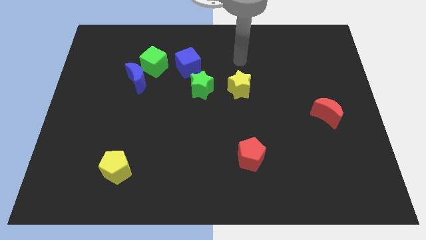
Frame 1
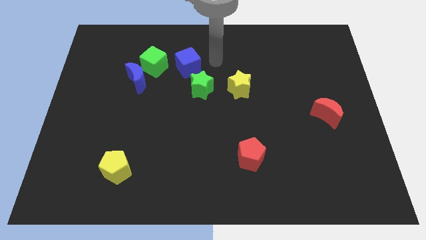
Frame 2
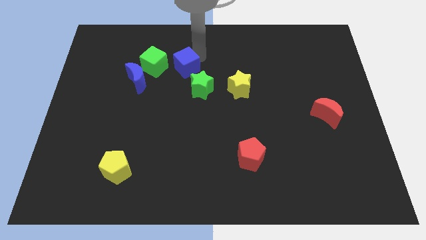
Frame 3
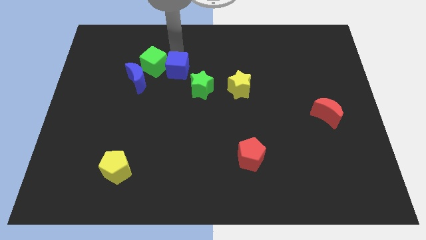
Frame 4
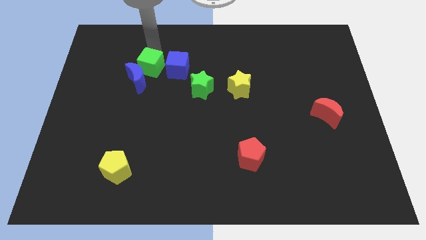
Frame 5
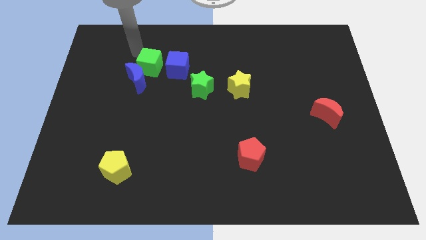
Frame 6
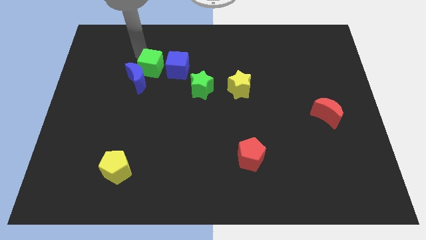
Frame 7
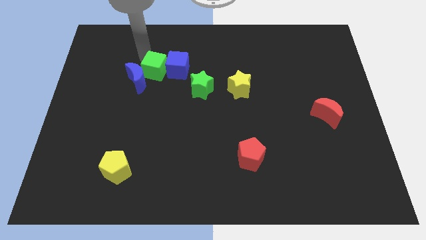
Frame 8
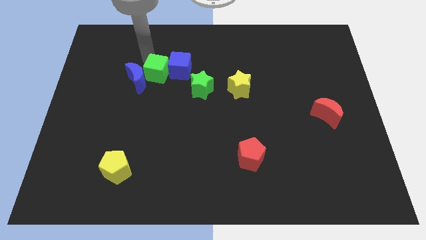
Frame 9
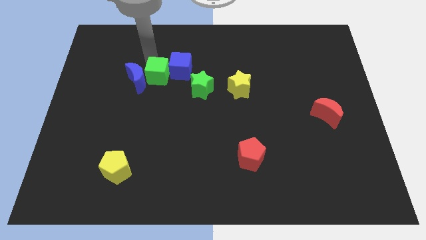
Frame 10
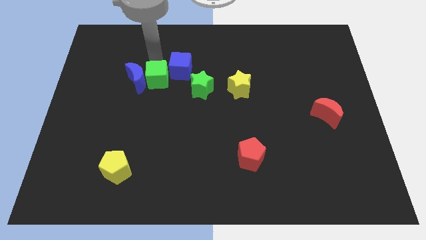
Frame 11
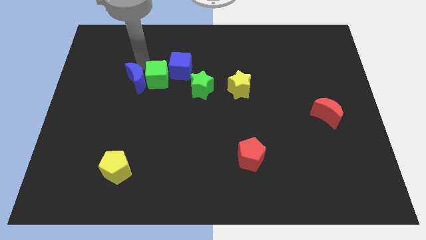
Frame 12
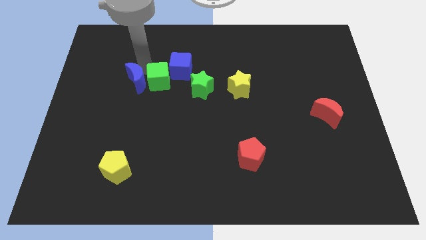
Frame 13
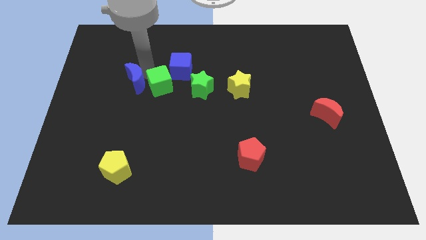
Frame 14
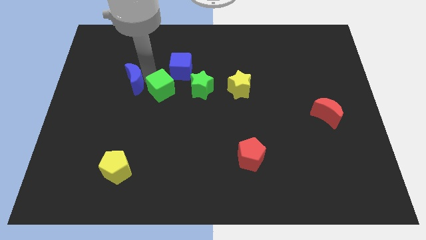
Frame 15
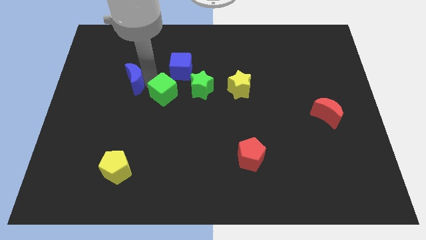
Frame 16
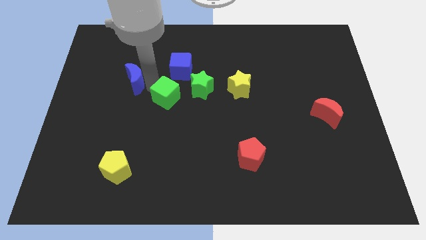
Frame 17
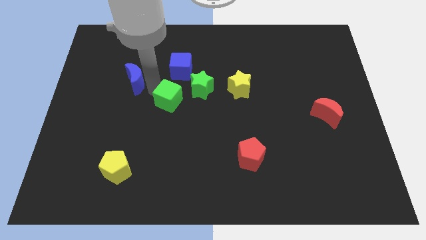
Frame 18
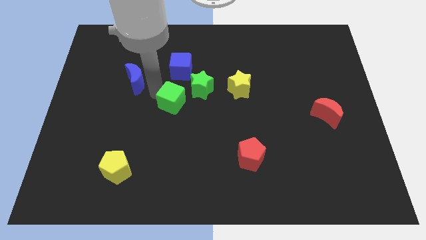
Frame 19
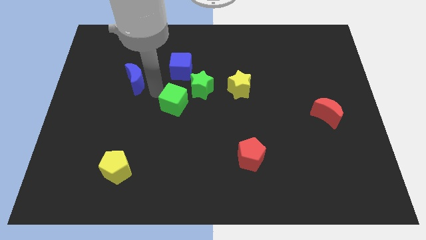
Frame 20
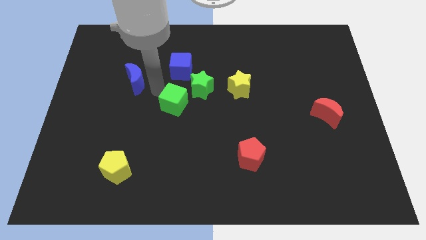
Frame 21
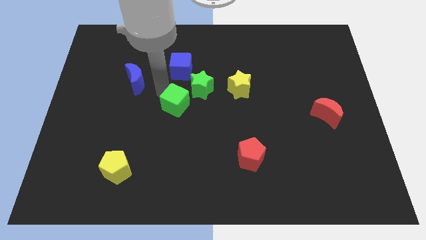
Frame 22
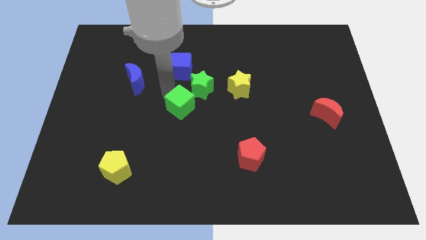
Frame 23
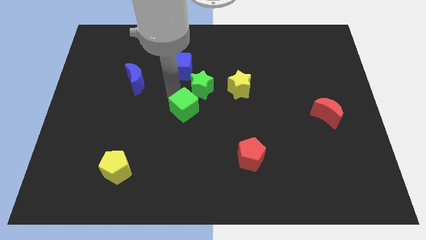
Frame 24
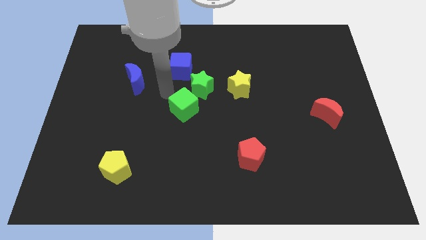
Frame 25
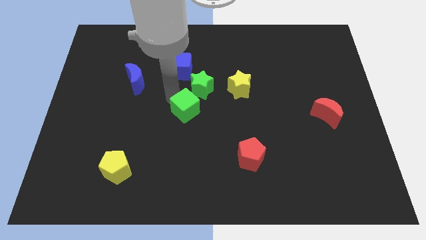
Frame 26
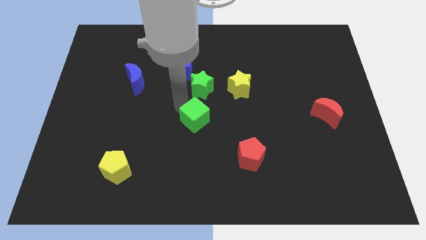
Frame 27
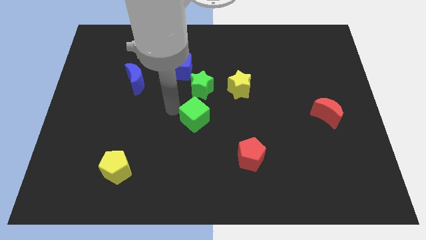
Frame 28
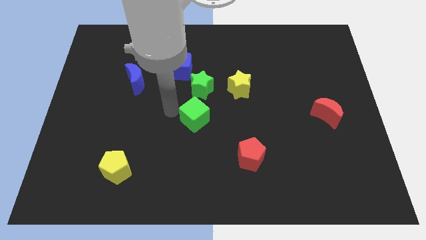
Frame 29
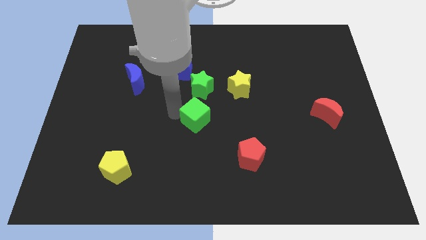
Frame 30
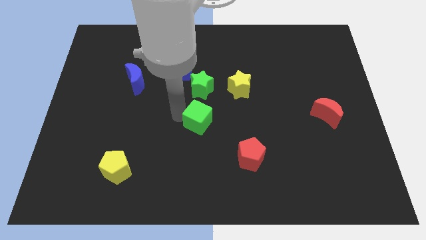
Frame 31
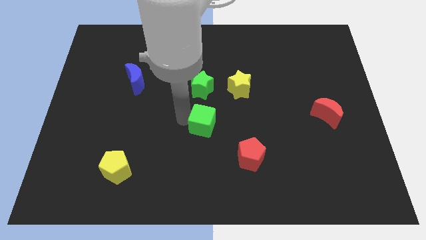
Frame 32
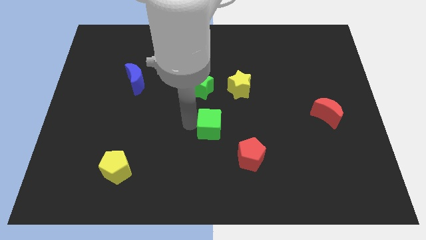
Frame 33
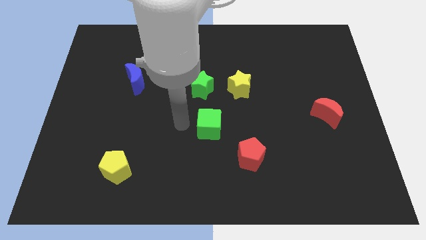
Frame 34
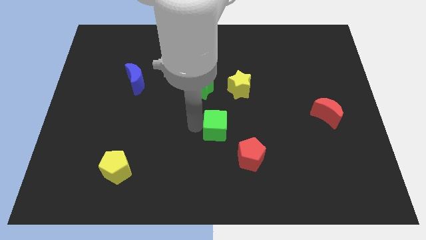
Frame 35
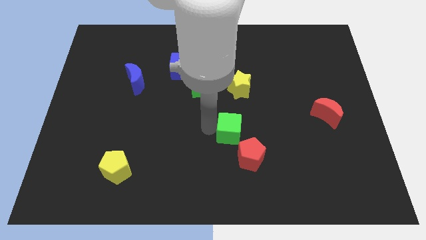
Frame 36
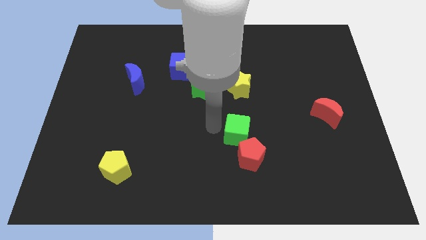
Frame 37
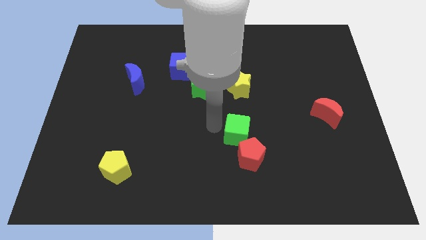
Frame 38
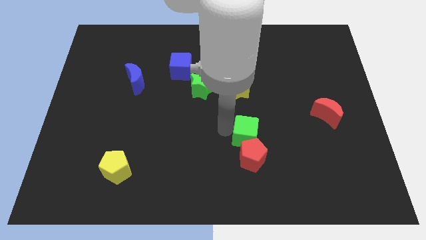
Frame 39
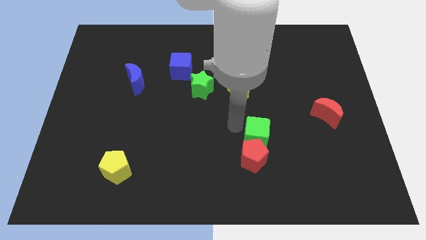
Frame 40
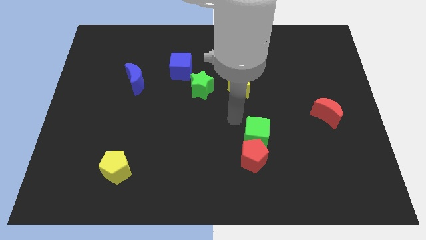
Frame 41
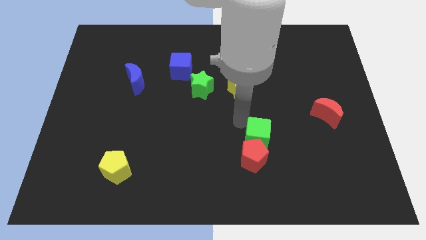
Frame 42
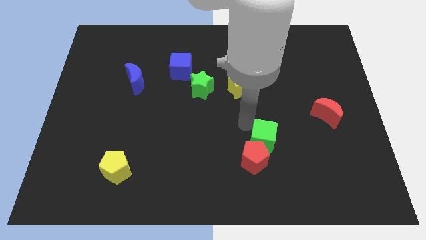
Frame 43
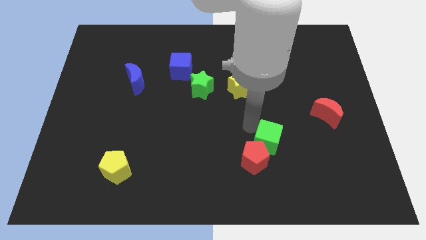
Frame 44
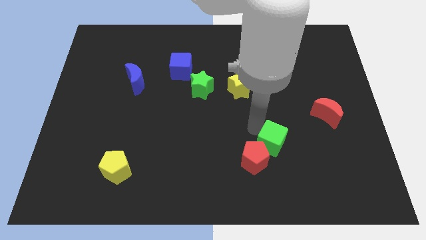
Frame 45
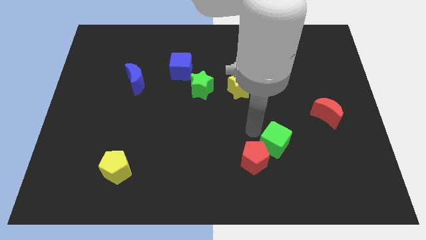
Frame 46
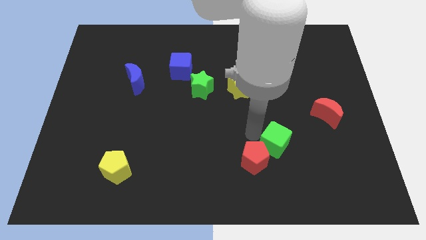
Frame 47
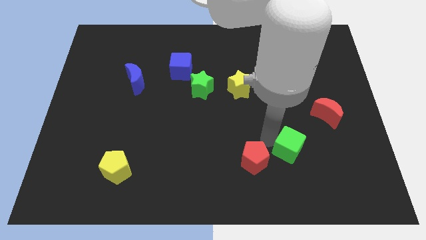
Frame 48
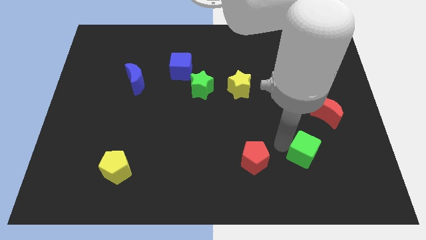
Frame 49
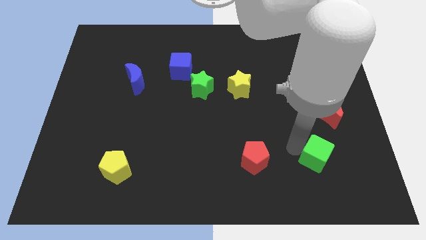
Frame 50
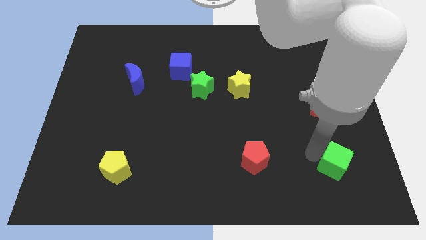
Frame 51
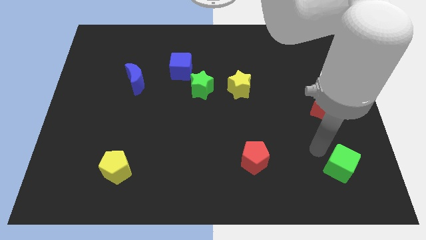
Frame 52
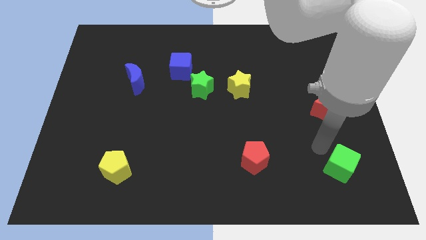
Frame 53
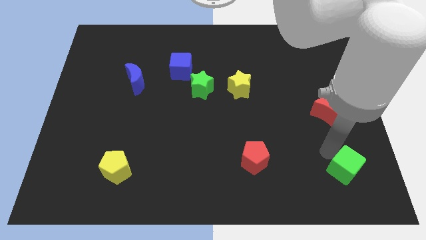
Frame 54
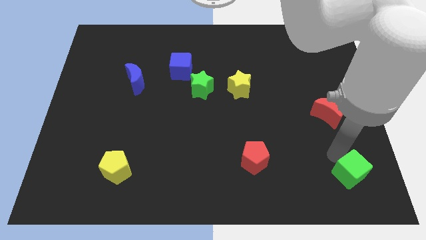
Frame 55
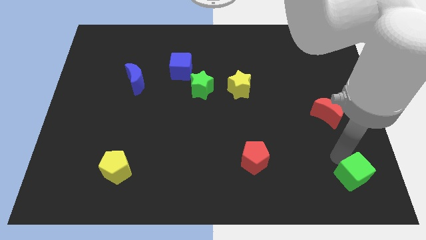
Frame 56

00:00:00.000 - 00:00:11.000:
move the green cube to the bottom right

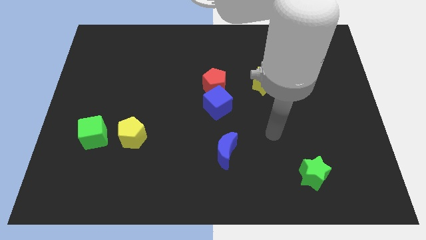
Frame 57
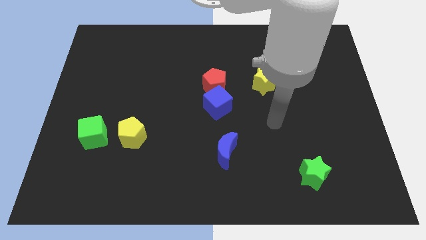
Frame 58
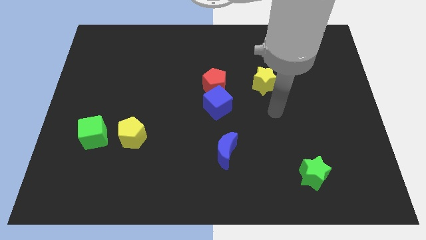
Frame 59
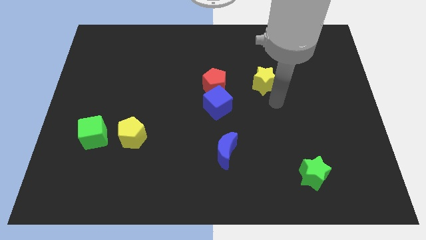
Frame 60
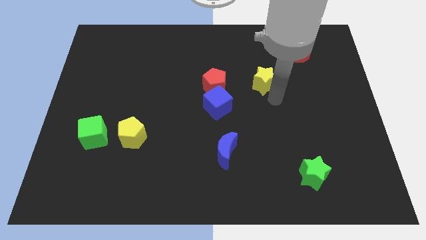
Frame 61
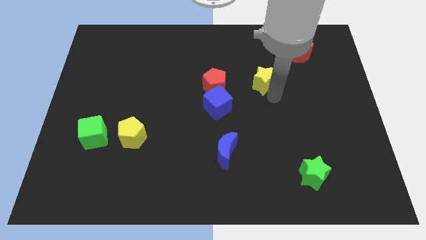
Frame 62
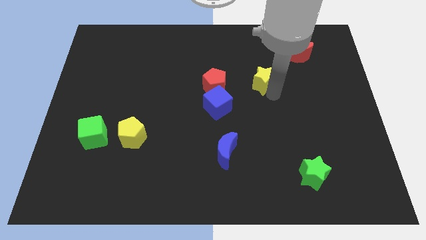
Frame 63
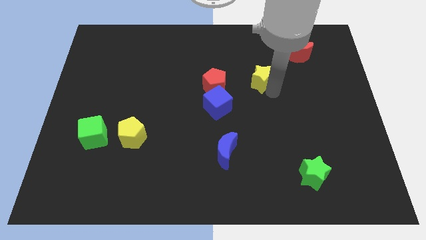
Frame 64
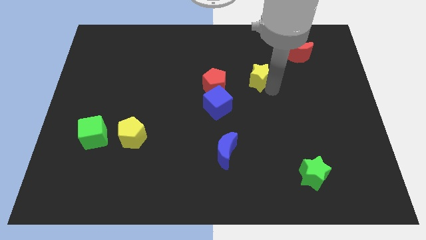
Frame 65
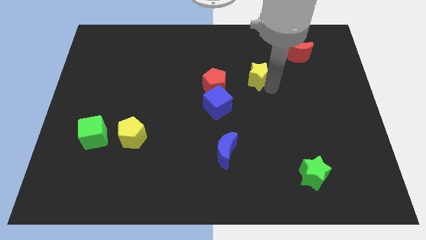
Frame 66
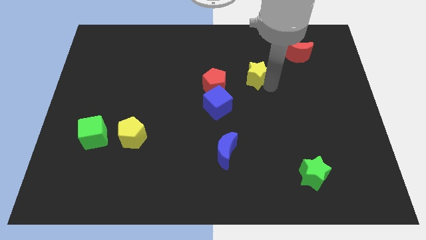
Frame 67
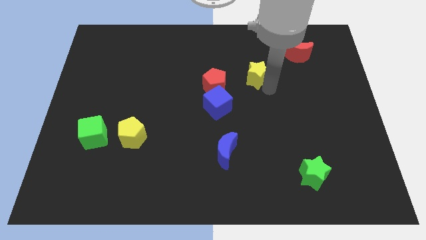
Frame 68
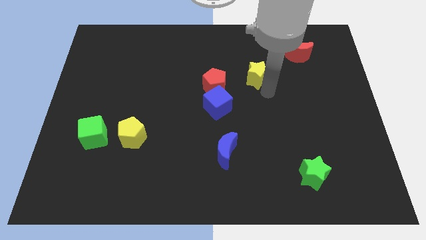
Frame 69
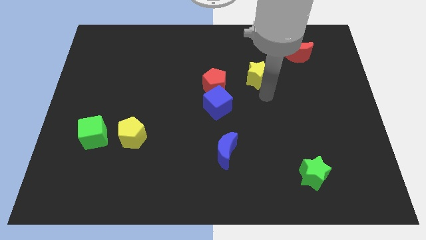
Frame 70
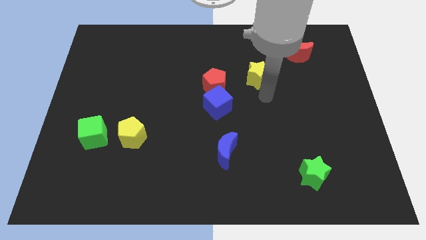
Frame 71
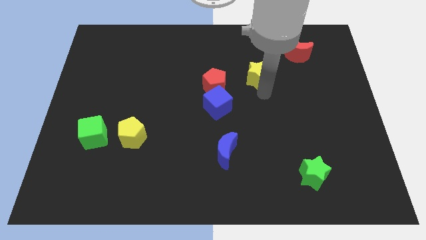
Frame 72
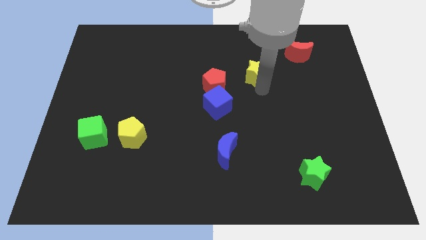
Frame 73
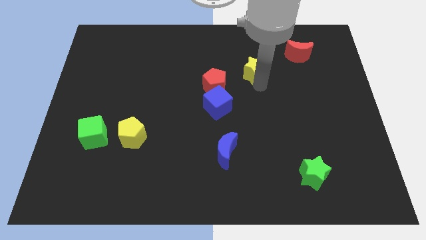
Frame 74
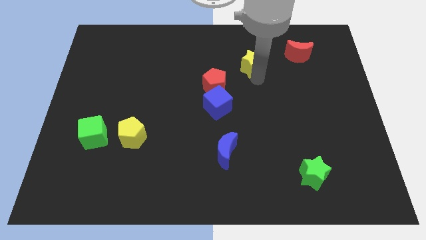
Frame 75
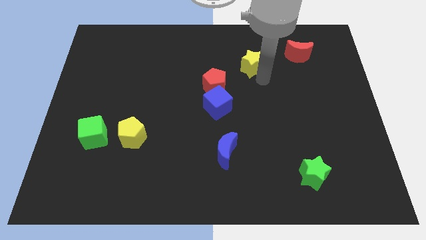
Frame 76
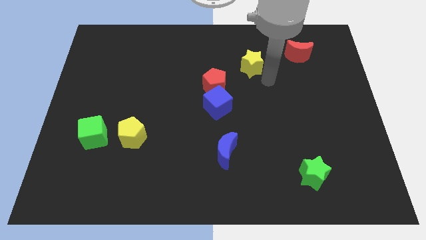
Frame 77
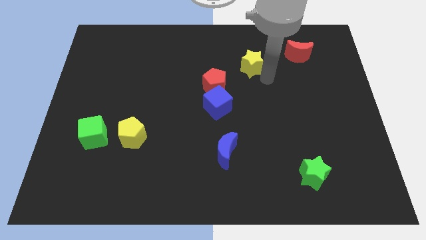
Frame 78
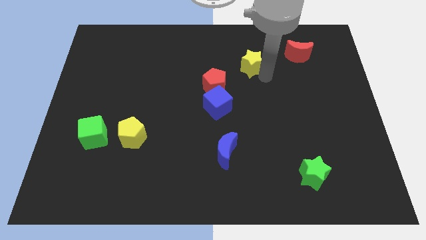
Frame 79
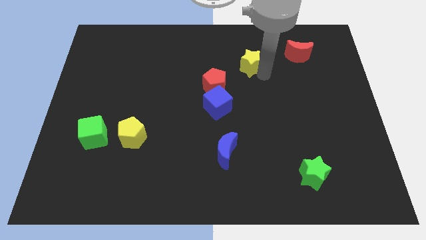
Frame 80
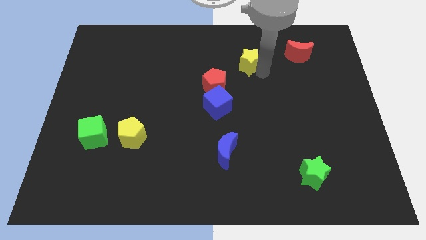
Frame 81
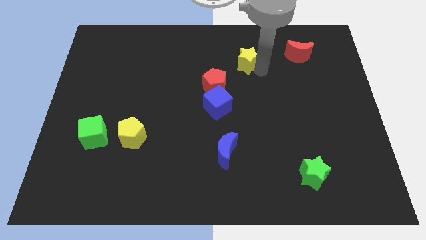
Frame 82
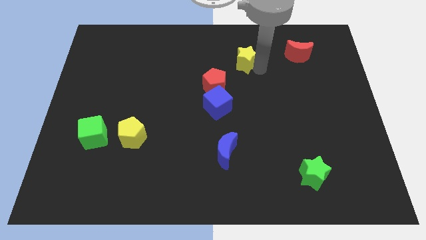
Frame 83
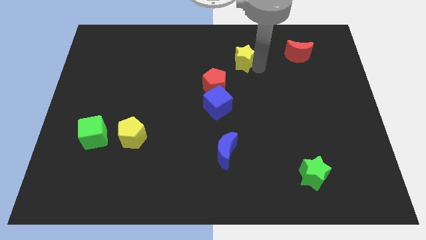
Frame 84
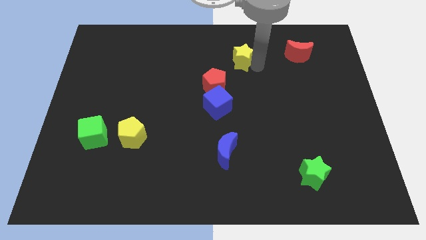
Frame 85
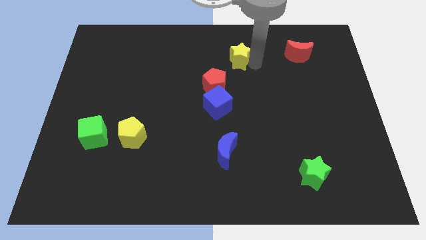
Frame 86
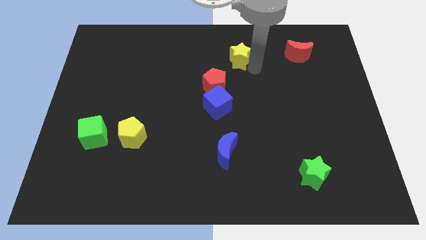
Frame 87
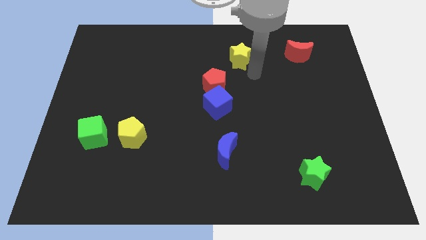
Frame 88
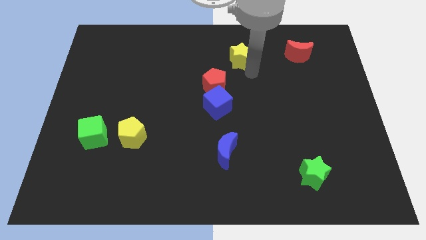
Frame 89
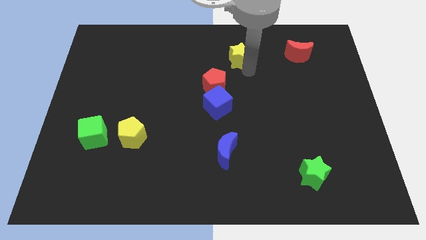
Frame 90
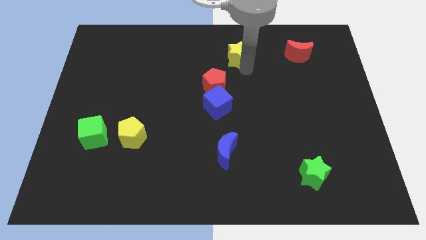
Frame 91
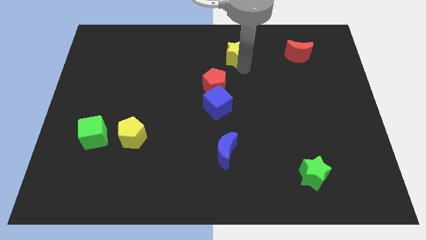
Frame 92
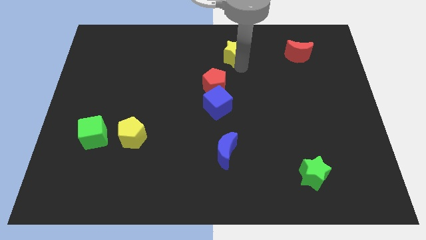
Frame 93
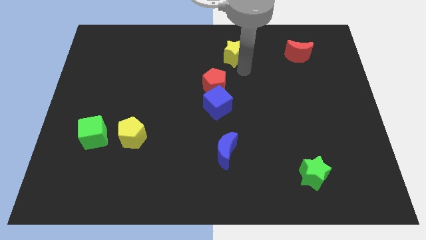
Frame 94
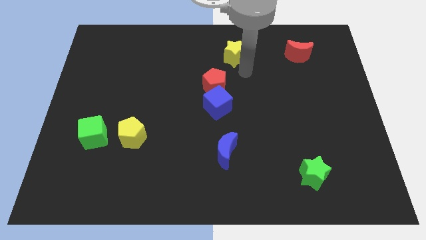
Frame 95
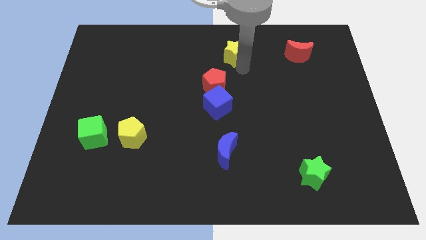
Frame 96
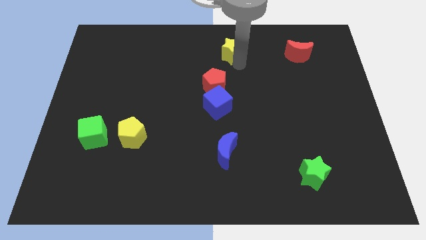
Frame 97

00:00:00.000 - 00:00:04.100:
move the yellow star to the top side
